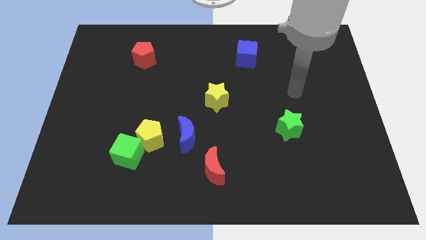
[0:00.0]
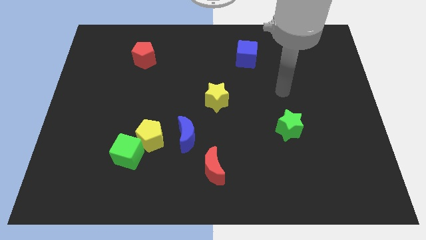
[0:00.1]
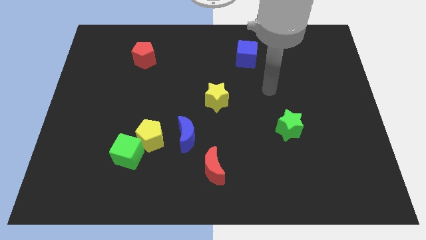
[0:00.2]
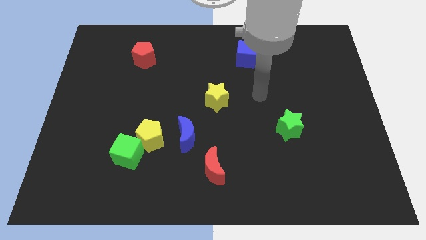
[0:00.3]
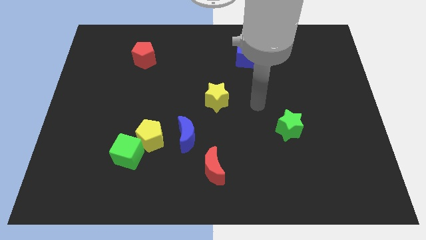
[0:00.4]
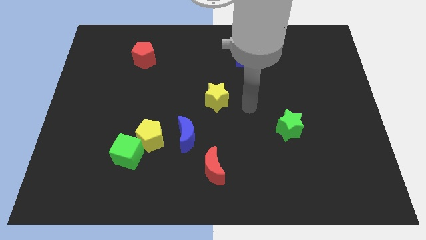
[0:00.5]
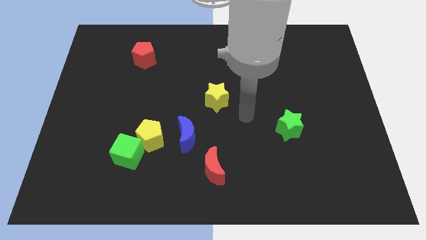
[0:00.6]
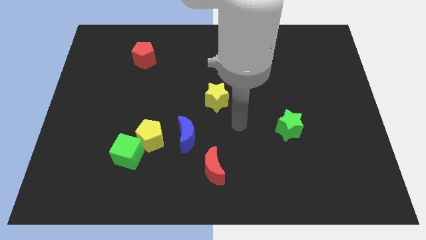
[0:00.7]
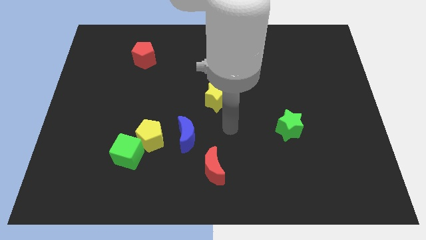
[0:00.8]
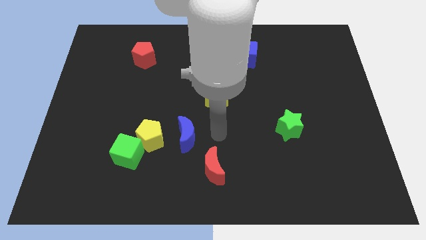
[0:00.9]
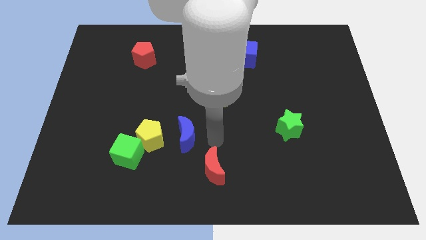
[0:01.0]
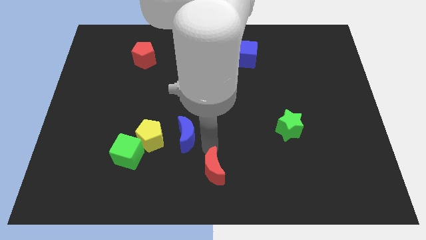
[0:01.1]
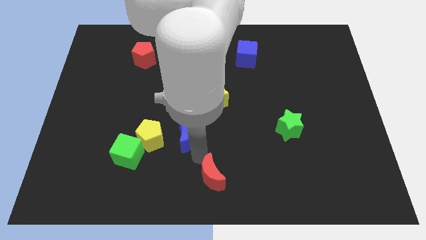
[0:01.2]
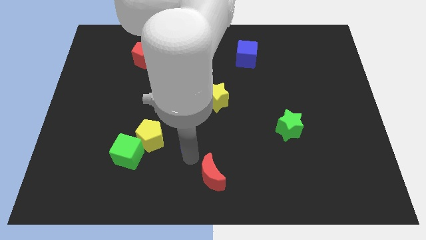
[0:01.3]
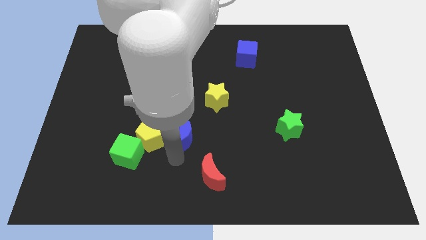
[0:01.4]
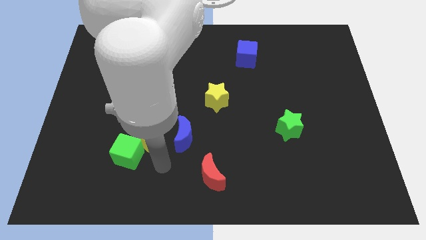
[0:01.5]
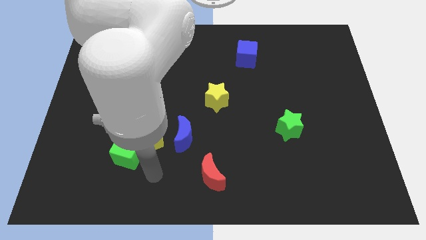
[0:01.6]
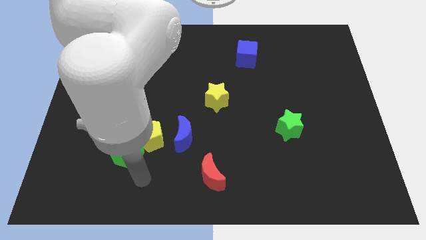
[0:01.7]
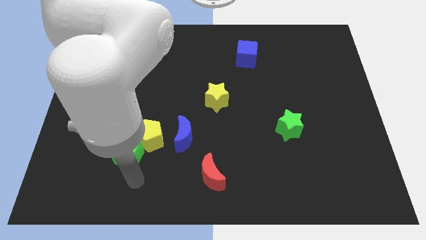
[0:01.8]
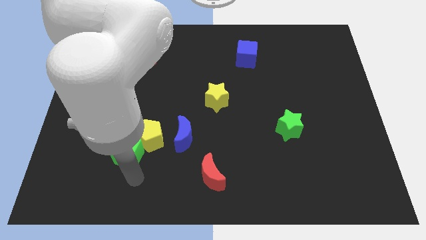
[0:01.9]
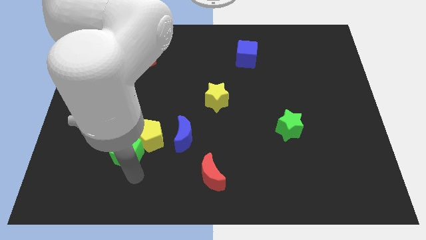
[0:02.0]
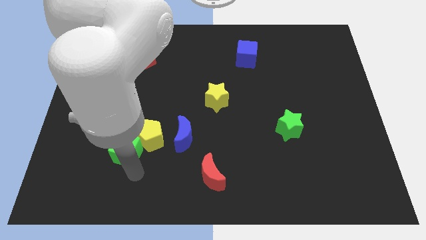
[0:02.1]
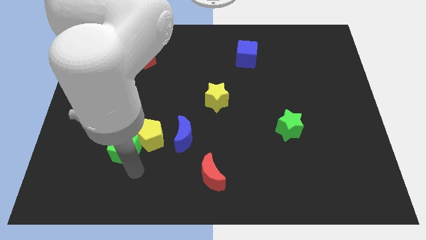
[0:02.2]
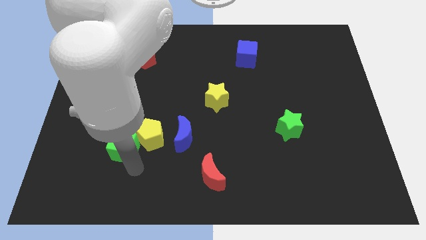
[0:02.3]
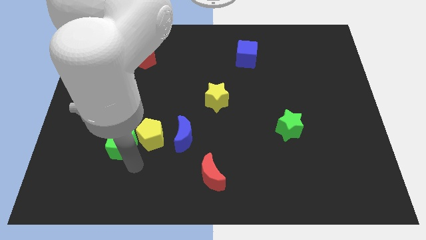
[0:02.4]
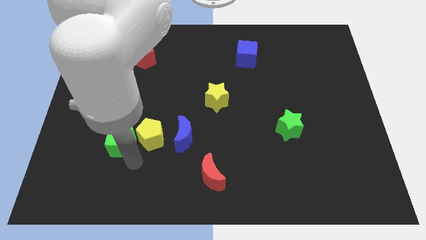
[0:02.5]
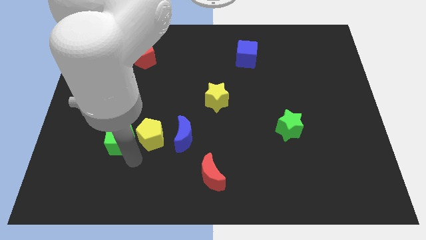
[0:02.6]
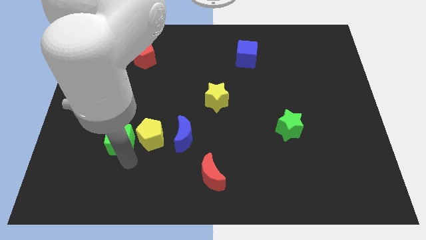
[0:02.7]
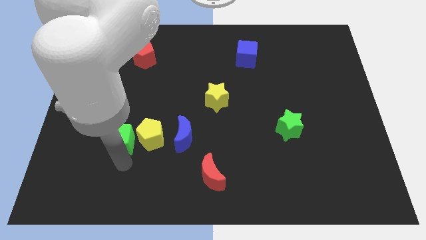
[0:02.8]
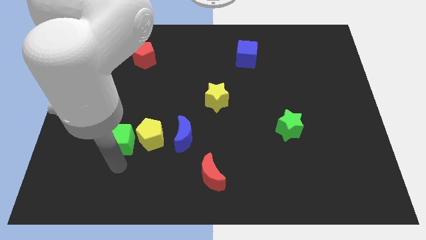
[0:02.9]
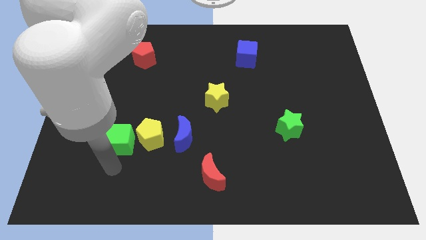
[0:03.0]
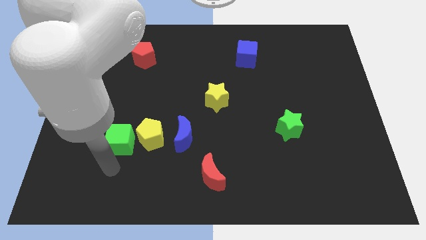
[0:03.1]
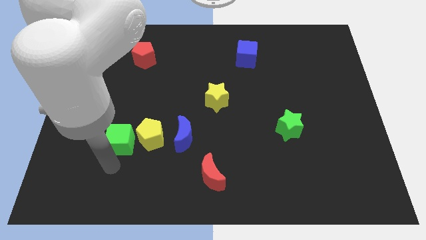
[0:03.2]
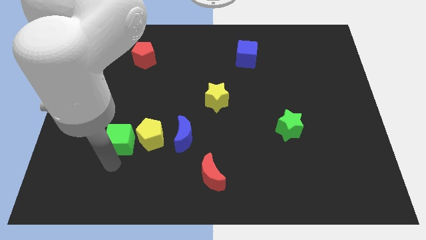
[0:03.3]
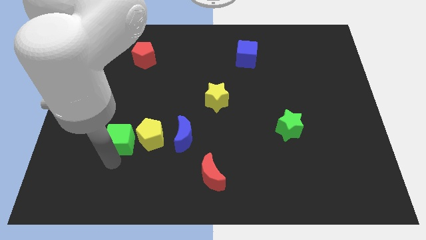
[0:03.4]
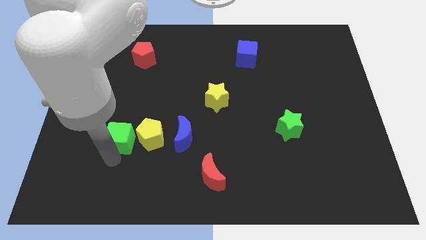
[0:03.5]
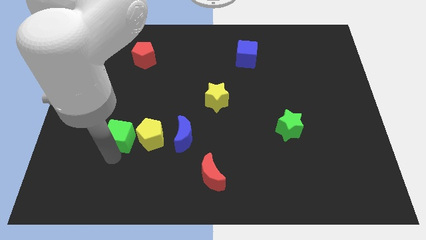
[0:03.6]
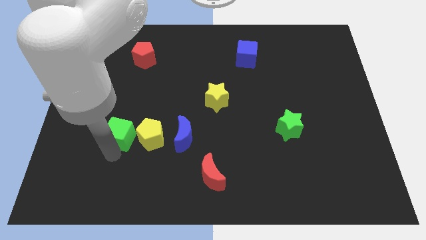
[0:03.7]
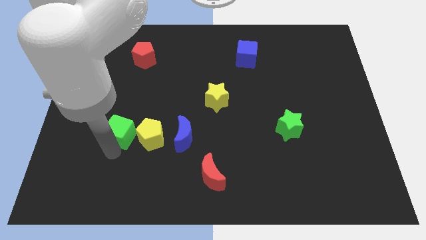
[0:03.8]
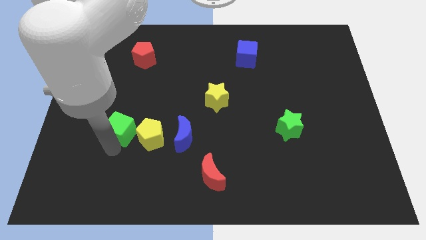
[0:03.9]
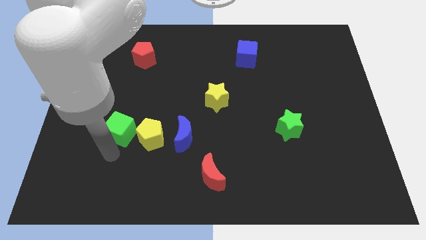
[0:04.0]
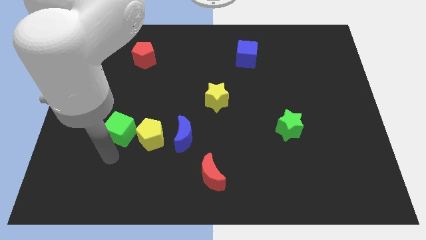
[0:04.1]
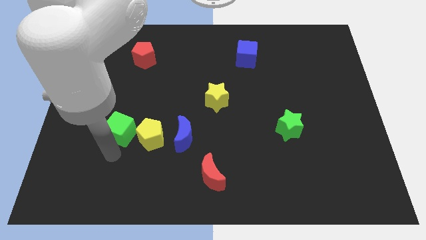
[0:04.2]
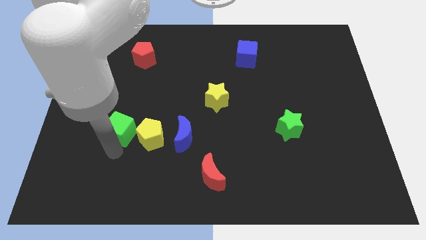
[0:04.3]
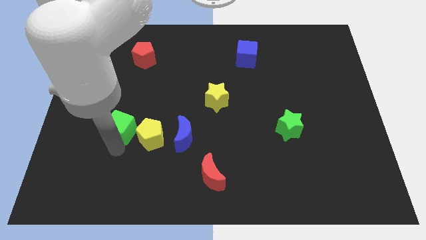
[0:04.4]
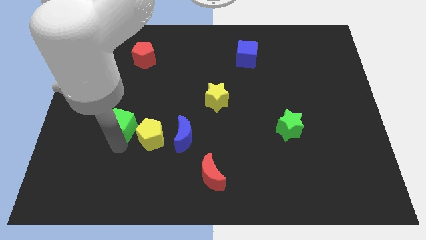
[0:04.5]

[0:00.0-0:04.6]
slide the green cube slightly upwards

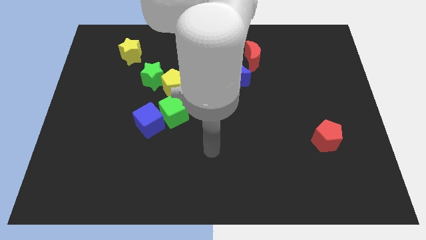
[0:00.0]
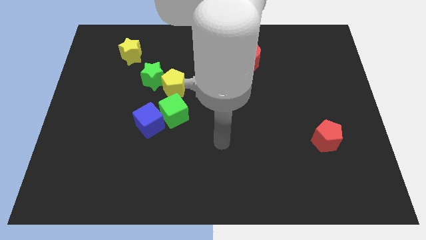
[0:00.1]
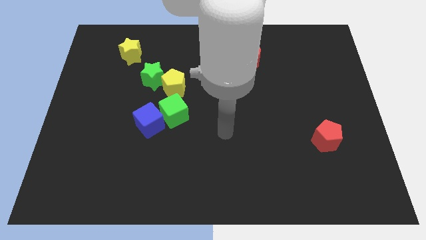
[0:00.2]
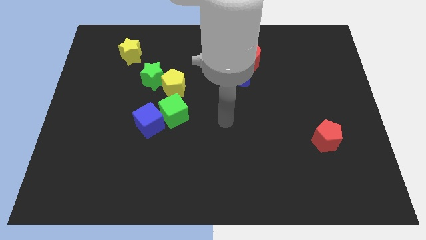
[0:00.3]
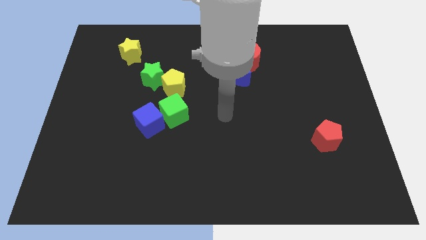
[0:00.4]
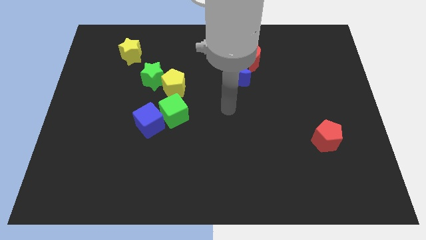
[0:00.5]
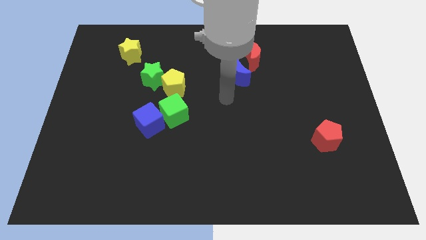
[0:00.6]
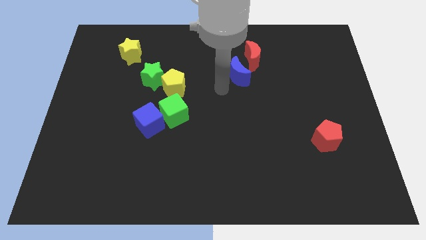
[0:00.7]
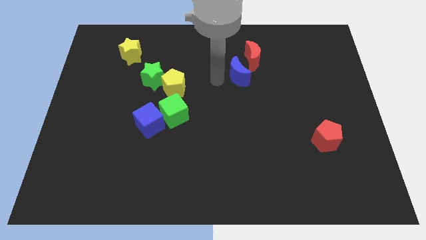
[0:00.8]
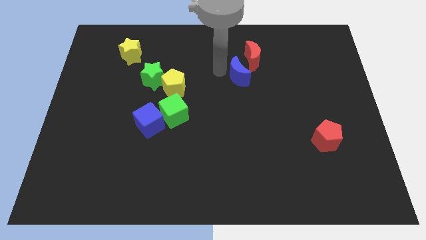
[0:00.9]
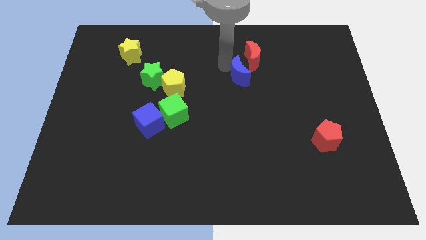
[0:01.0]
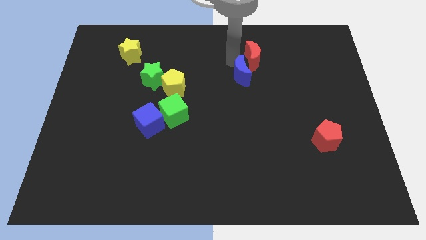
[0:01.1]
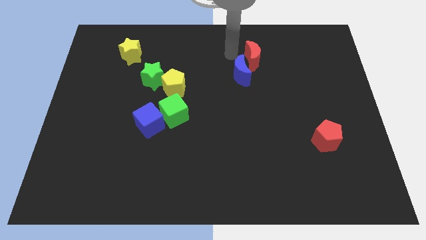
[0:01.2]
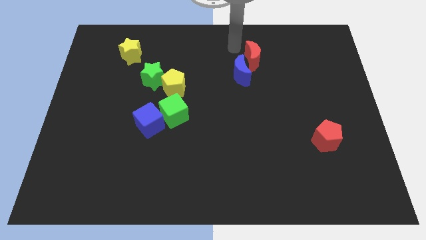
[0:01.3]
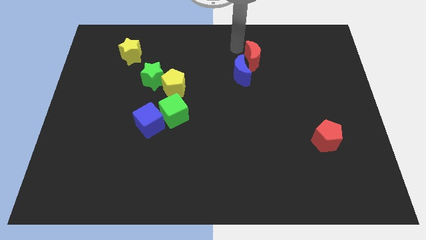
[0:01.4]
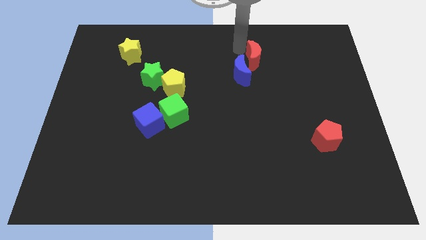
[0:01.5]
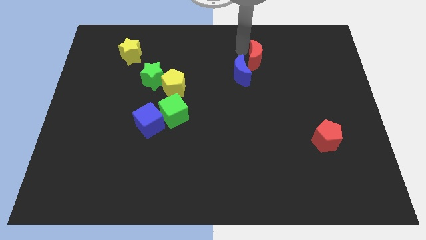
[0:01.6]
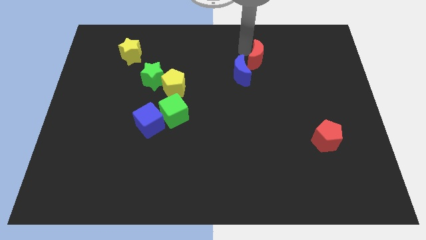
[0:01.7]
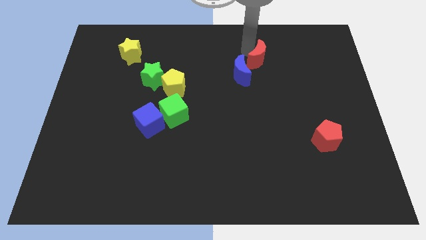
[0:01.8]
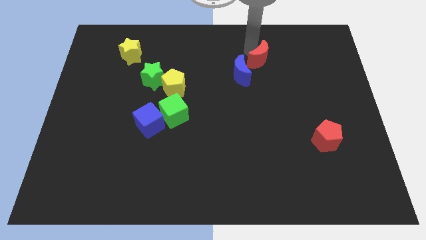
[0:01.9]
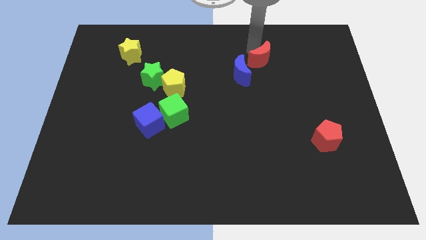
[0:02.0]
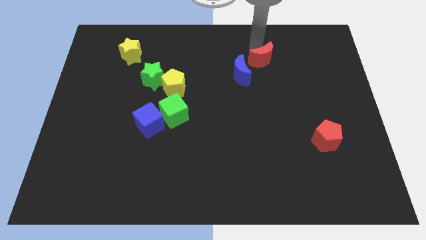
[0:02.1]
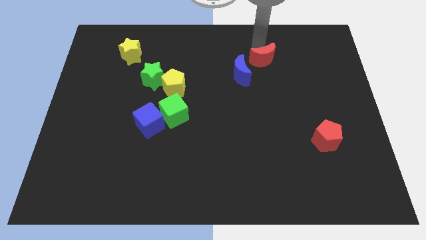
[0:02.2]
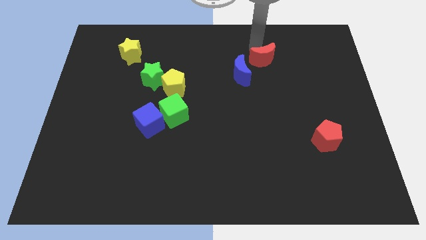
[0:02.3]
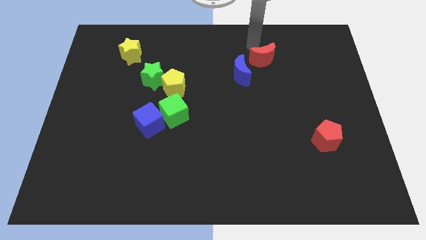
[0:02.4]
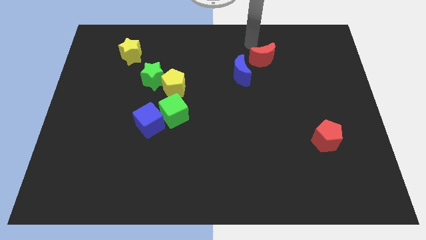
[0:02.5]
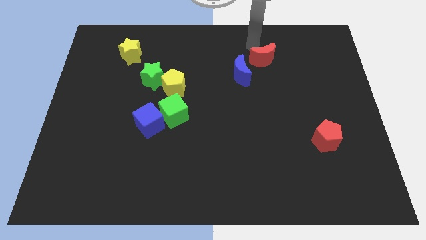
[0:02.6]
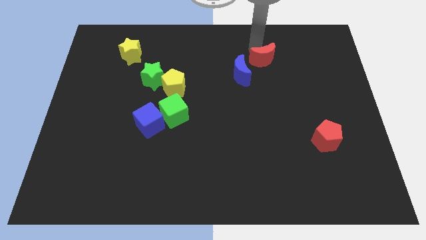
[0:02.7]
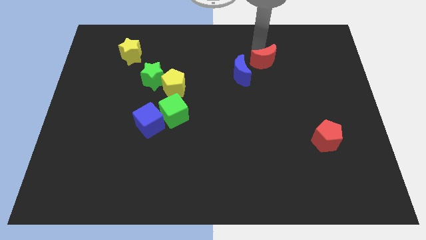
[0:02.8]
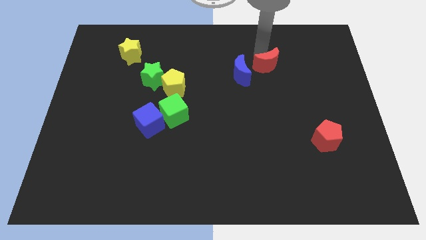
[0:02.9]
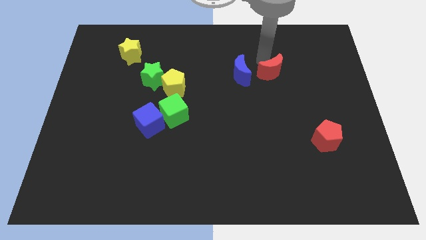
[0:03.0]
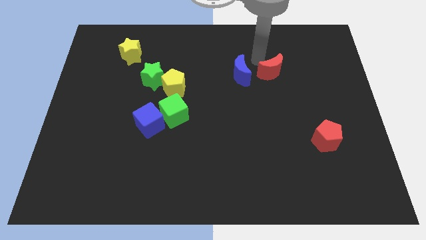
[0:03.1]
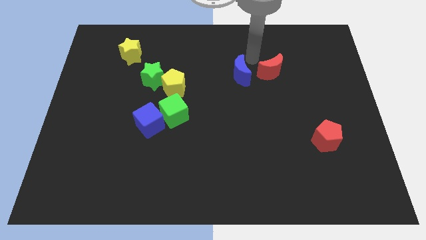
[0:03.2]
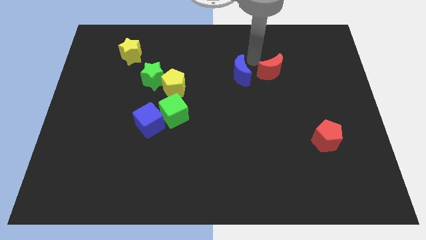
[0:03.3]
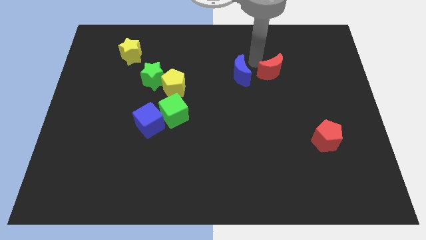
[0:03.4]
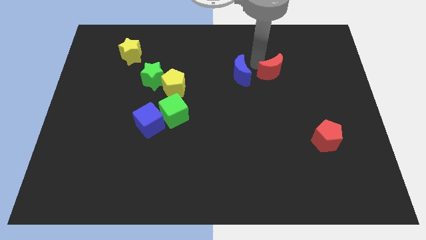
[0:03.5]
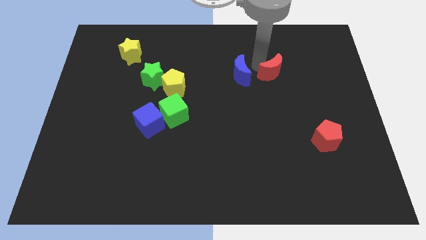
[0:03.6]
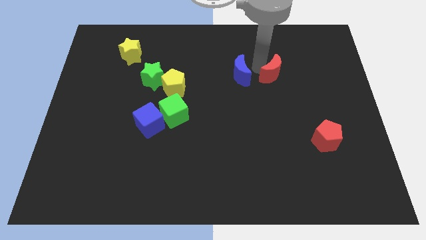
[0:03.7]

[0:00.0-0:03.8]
push the red moon downwards and then right somewhat
